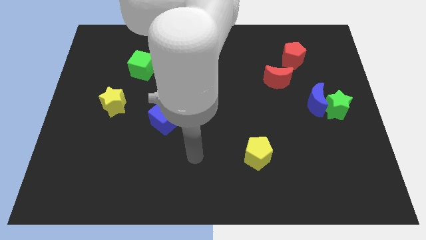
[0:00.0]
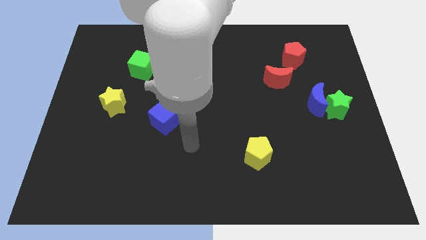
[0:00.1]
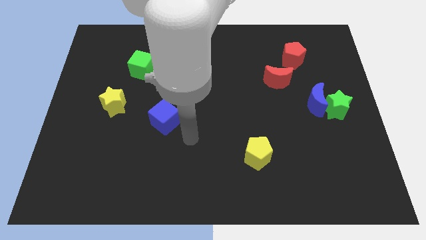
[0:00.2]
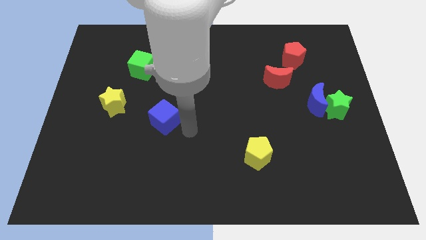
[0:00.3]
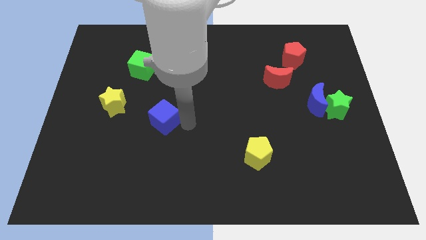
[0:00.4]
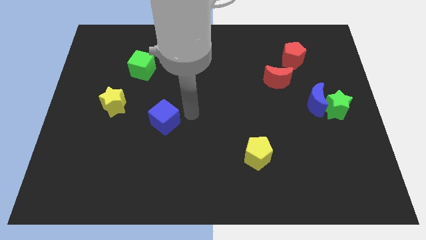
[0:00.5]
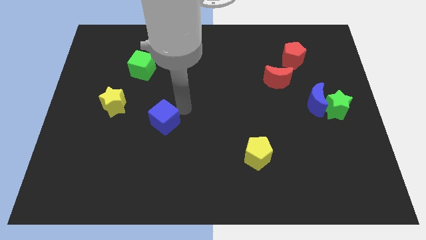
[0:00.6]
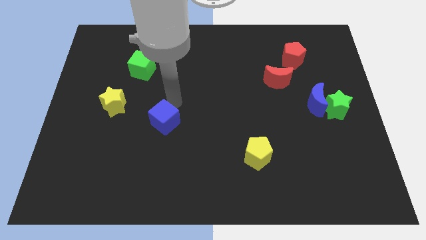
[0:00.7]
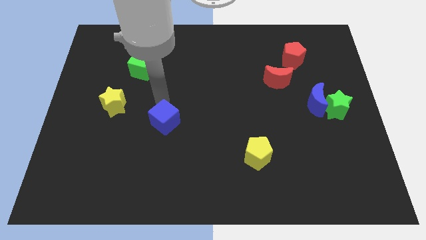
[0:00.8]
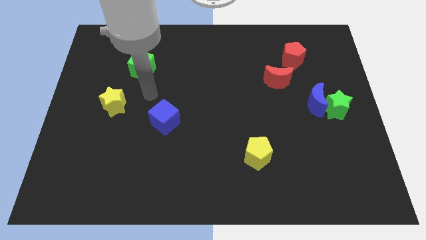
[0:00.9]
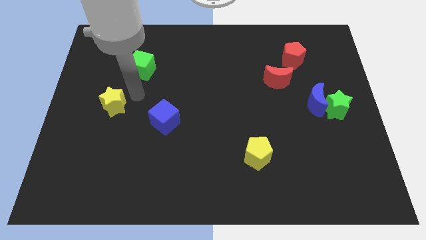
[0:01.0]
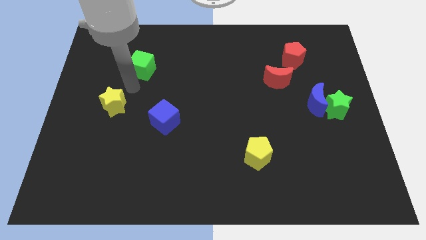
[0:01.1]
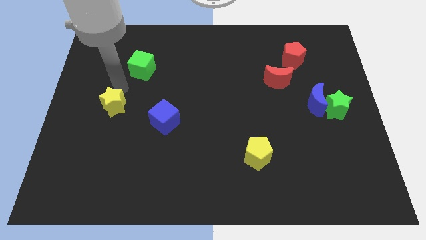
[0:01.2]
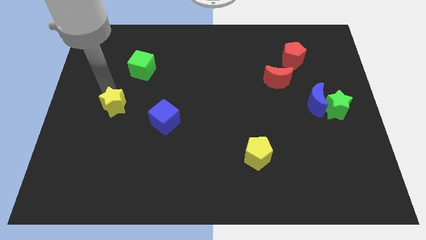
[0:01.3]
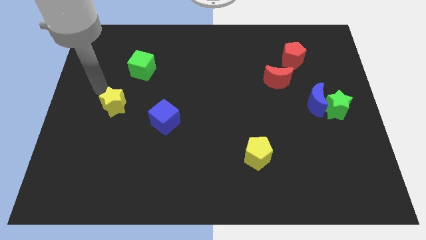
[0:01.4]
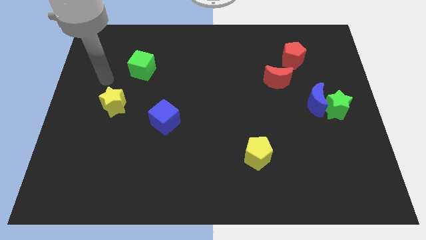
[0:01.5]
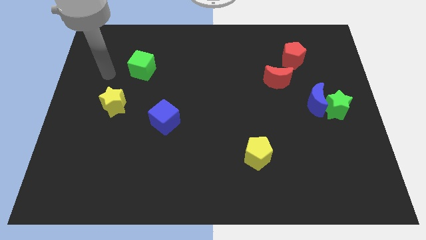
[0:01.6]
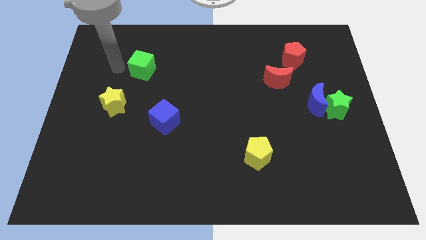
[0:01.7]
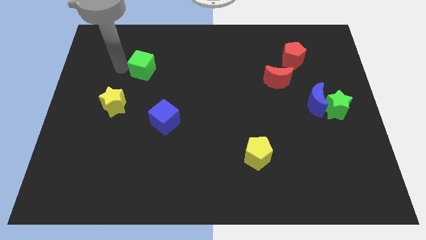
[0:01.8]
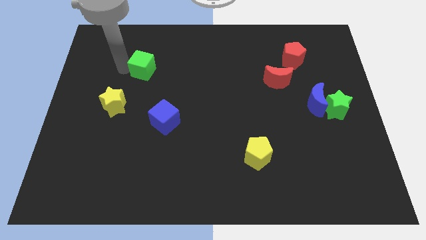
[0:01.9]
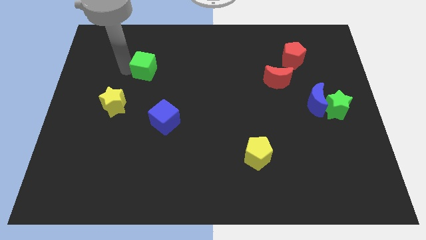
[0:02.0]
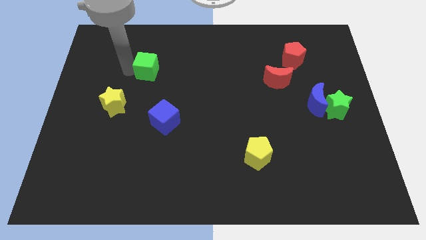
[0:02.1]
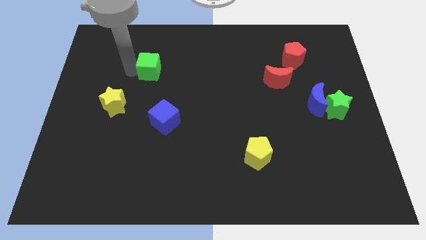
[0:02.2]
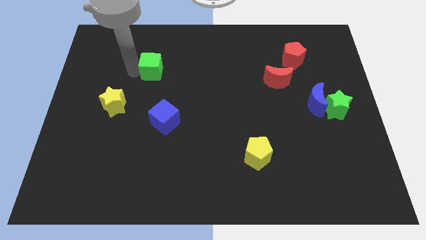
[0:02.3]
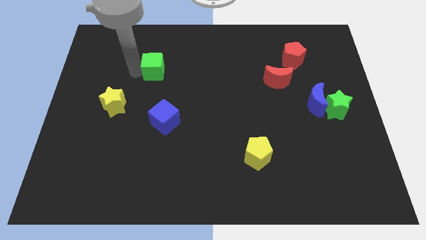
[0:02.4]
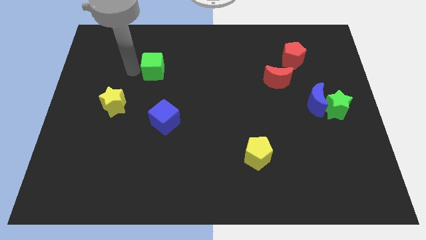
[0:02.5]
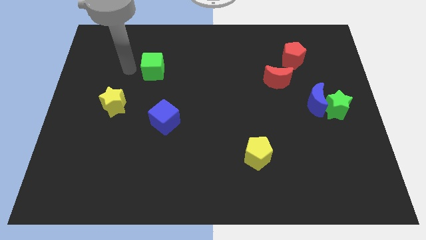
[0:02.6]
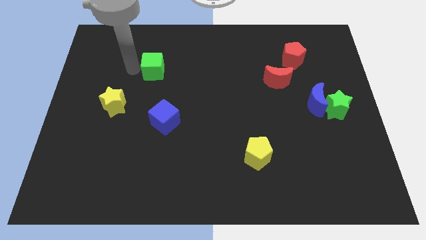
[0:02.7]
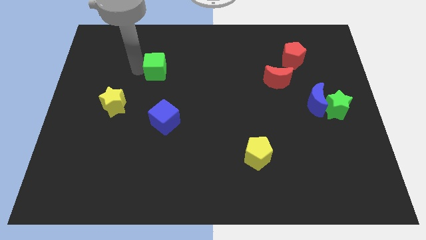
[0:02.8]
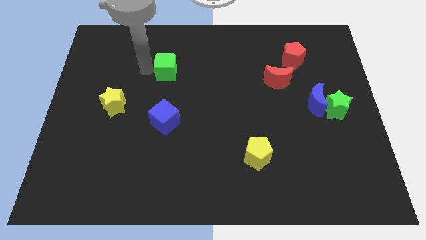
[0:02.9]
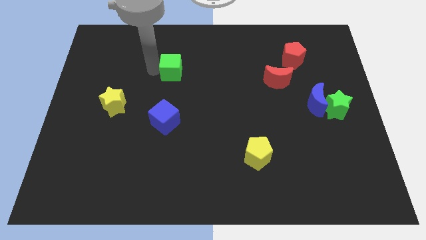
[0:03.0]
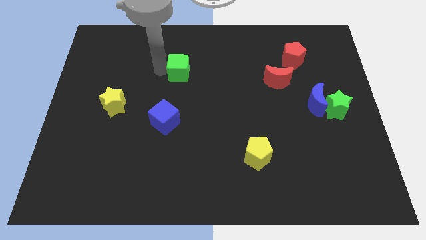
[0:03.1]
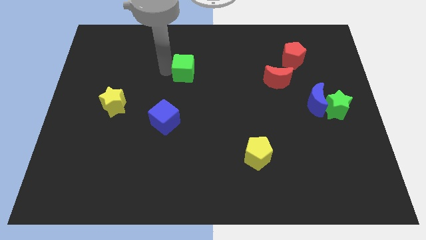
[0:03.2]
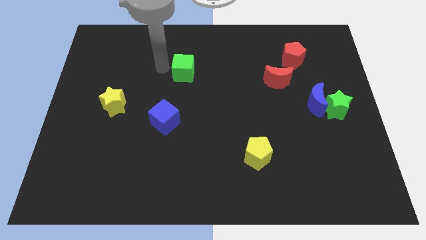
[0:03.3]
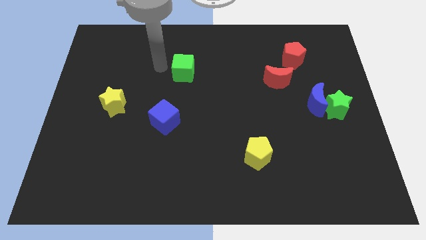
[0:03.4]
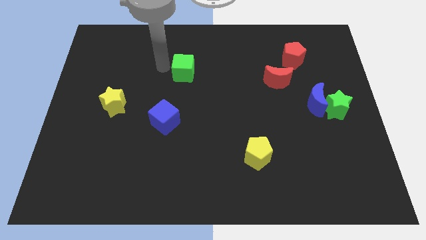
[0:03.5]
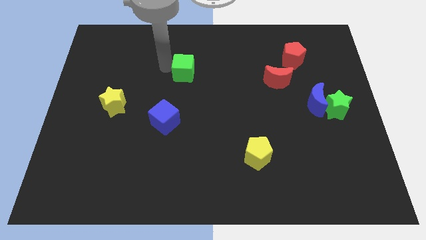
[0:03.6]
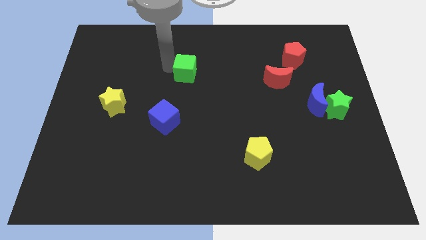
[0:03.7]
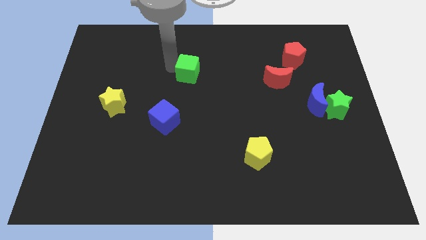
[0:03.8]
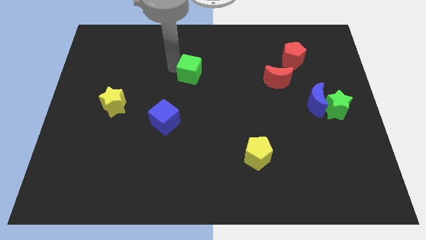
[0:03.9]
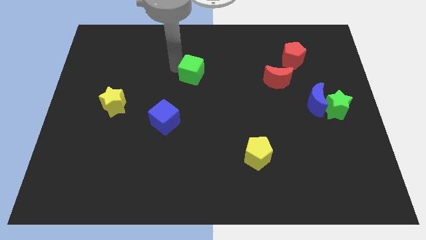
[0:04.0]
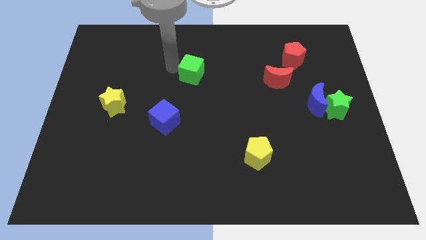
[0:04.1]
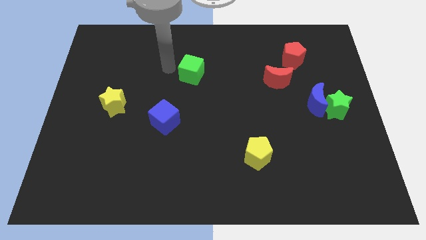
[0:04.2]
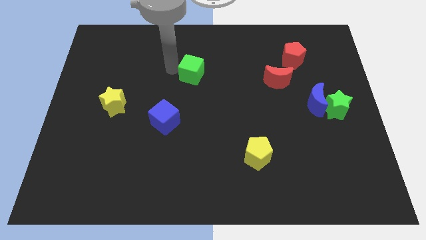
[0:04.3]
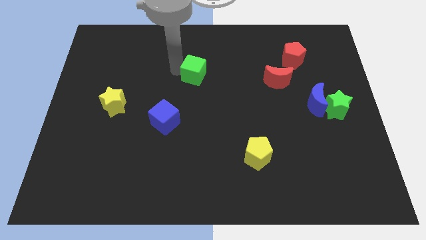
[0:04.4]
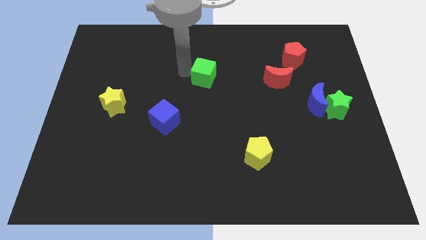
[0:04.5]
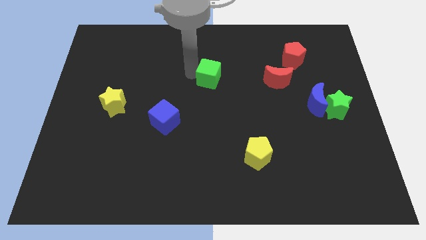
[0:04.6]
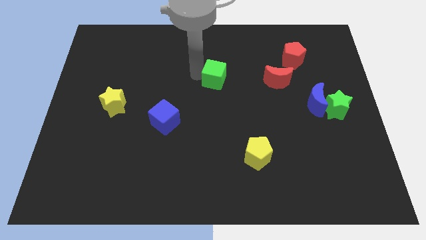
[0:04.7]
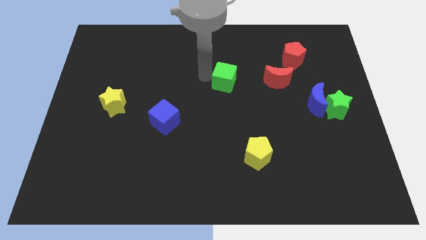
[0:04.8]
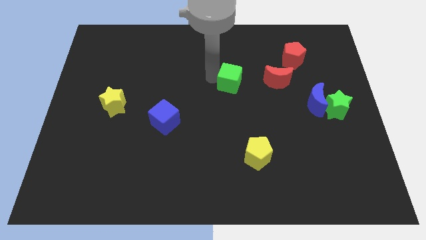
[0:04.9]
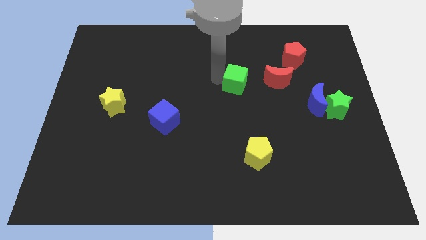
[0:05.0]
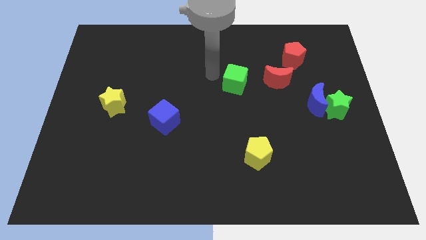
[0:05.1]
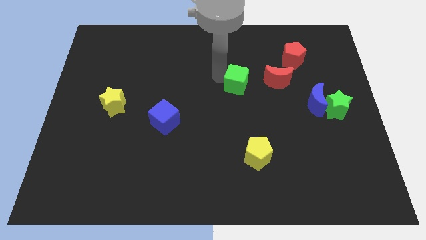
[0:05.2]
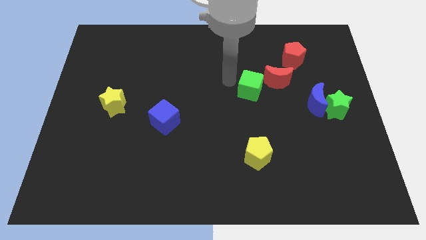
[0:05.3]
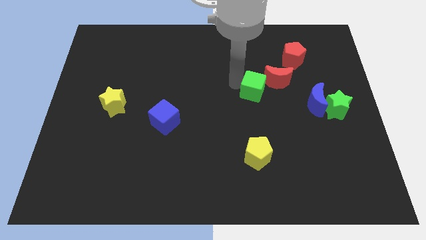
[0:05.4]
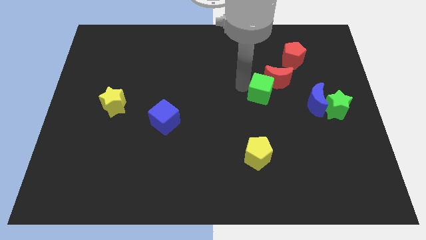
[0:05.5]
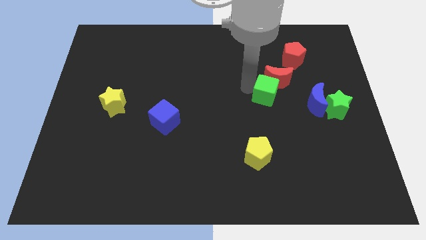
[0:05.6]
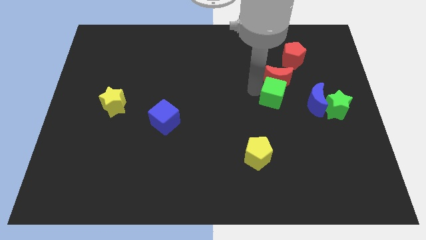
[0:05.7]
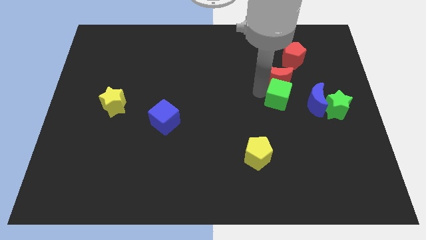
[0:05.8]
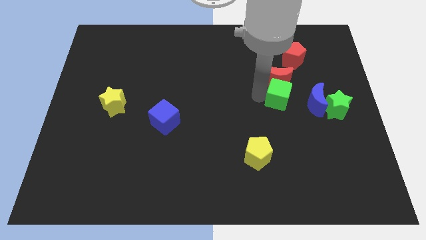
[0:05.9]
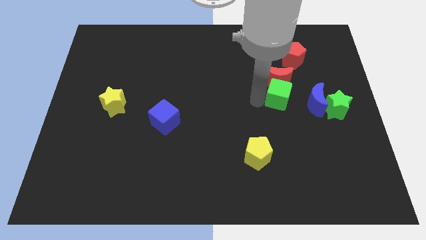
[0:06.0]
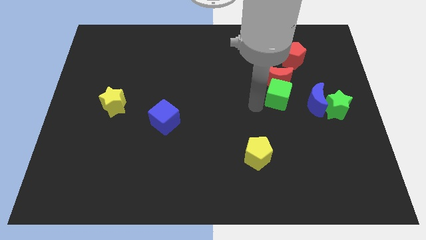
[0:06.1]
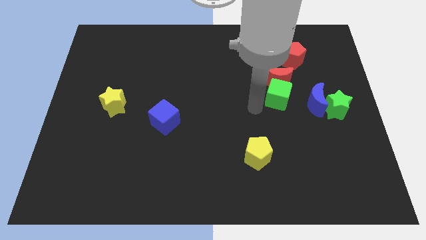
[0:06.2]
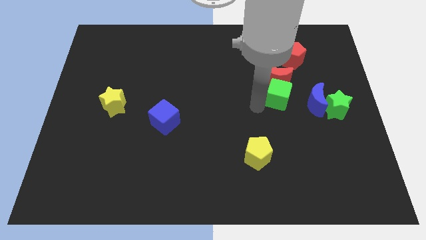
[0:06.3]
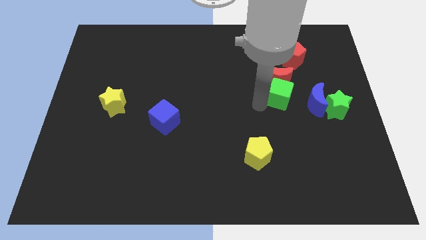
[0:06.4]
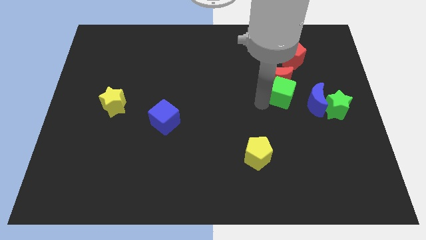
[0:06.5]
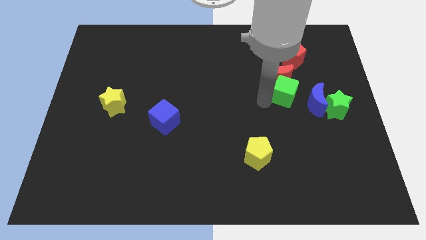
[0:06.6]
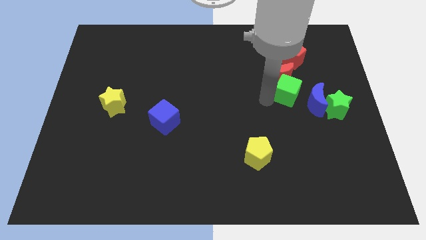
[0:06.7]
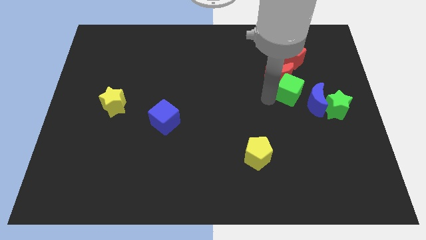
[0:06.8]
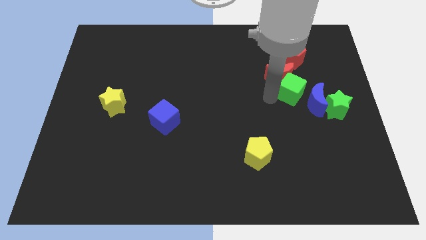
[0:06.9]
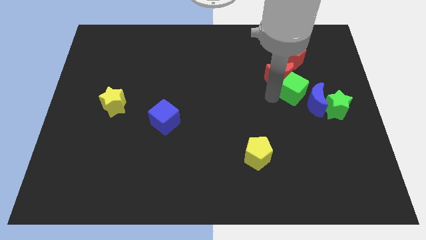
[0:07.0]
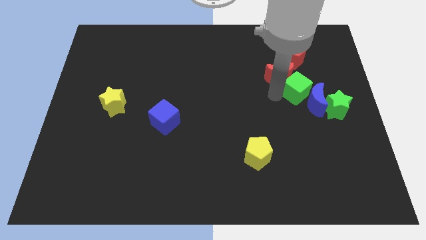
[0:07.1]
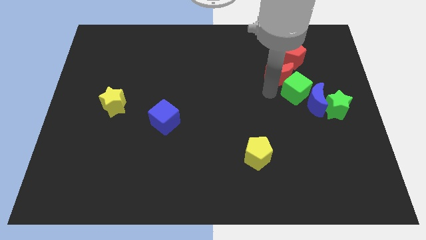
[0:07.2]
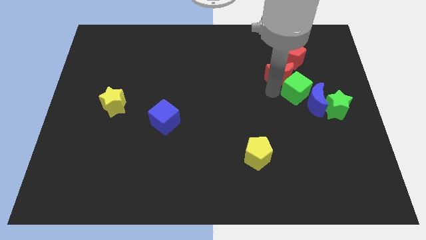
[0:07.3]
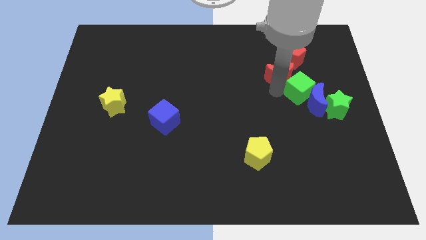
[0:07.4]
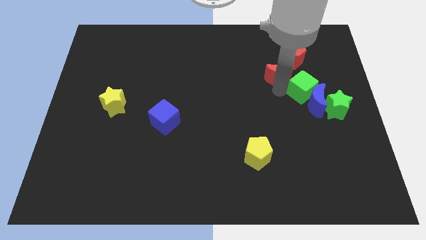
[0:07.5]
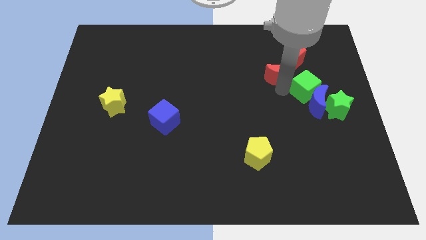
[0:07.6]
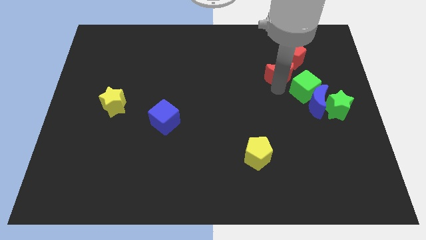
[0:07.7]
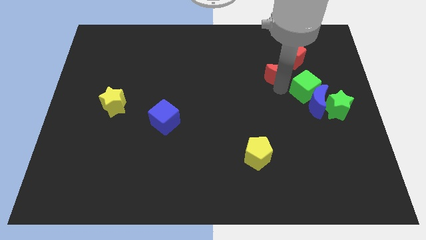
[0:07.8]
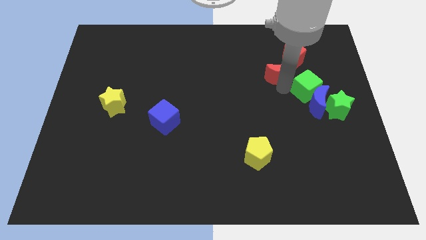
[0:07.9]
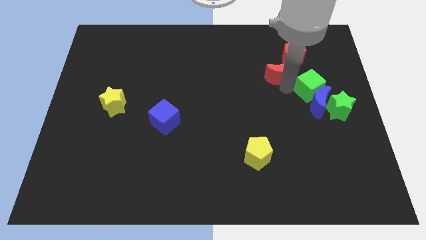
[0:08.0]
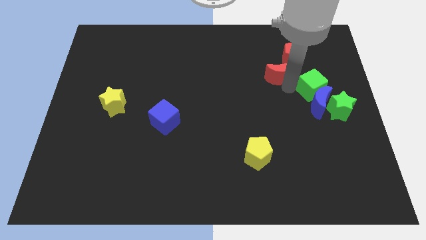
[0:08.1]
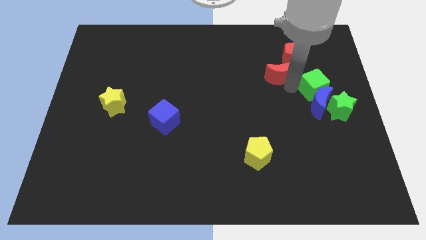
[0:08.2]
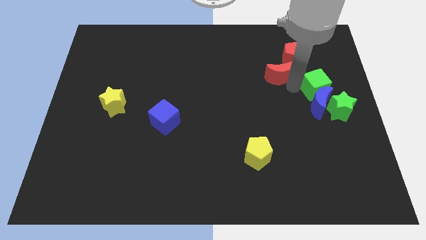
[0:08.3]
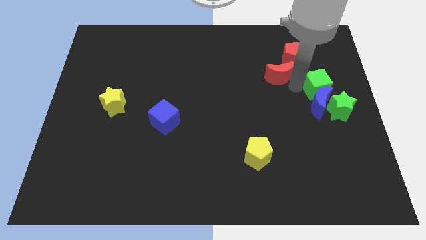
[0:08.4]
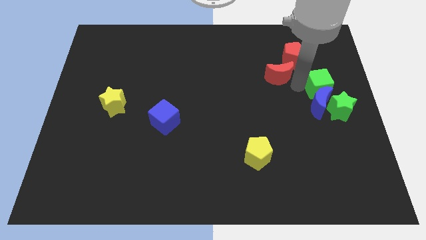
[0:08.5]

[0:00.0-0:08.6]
push the green cube to the right side of the board
